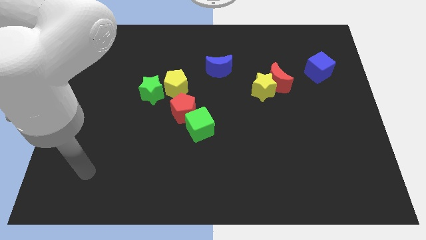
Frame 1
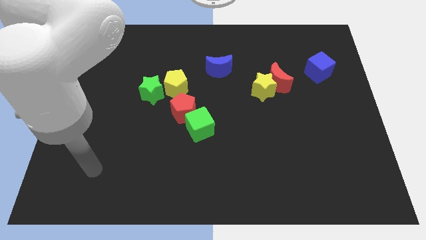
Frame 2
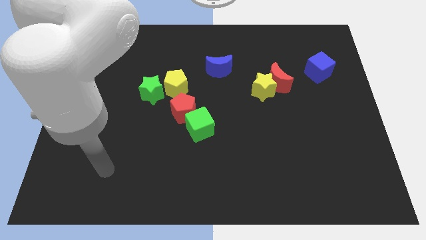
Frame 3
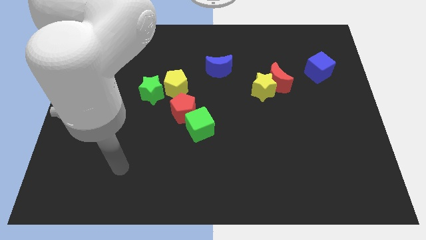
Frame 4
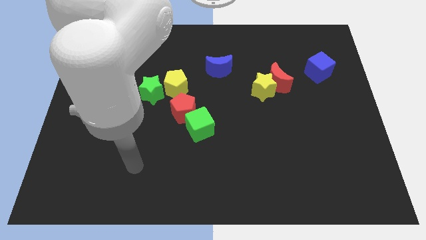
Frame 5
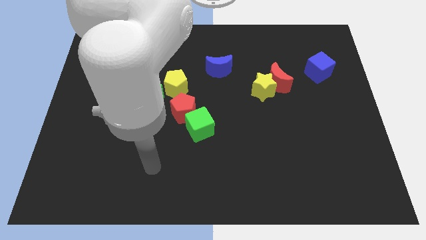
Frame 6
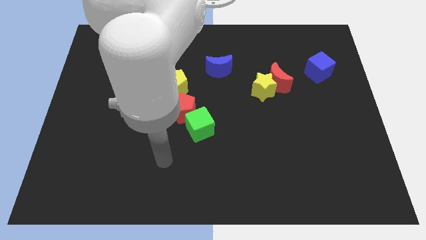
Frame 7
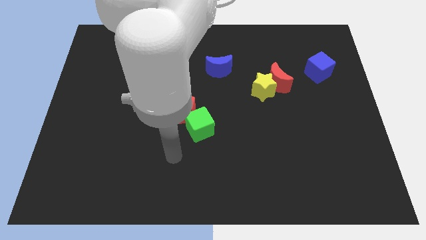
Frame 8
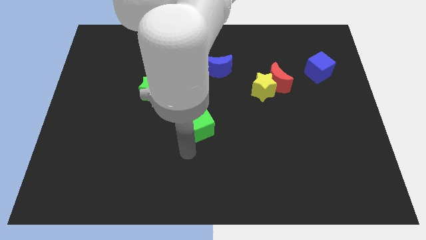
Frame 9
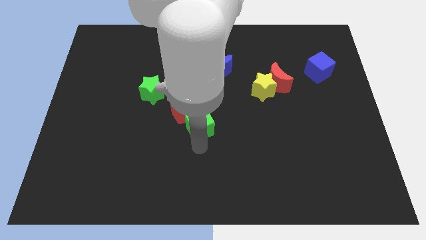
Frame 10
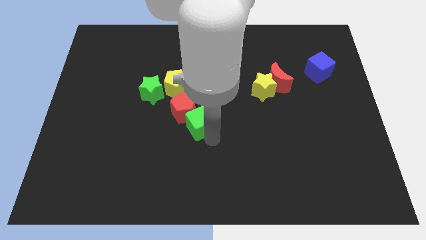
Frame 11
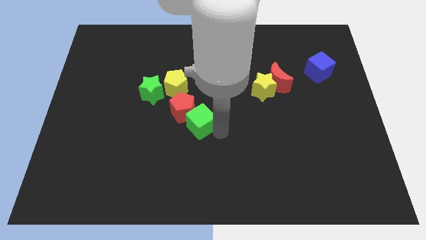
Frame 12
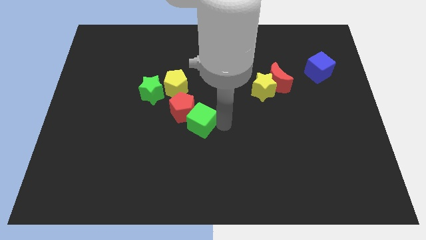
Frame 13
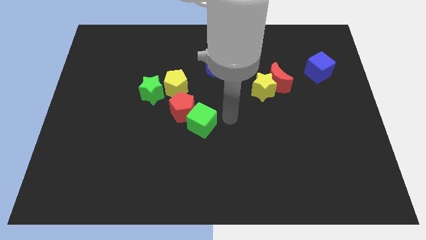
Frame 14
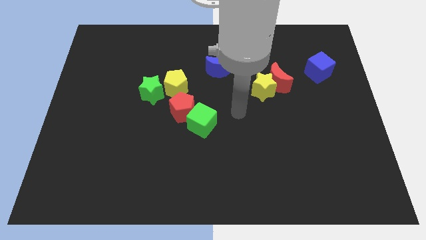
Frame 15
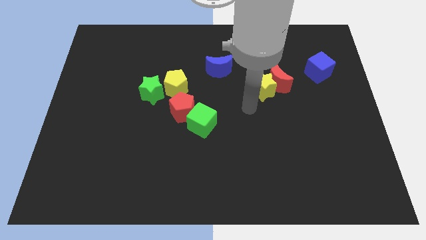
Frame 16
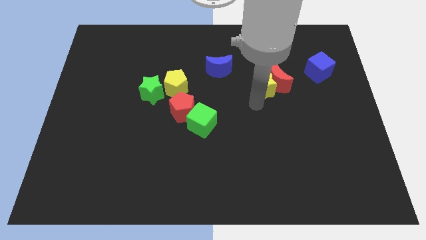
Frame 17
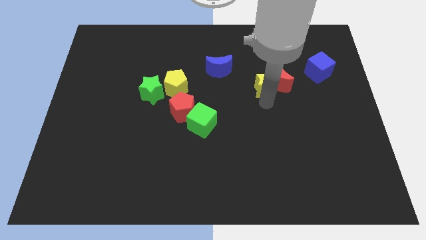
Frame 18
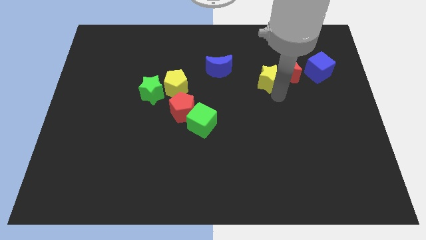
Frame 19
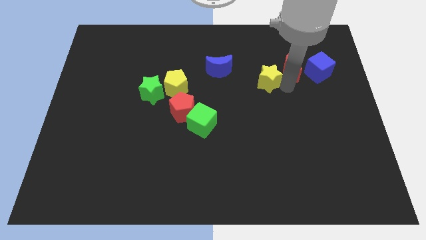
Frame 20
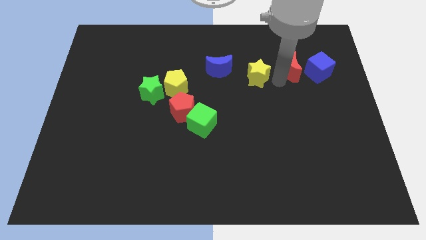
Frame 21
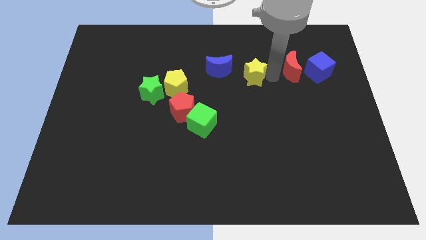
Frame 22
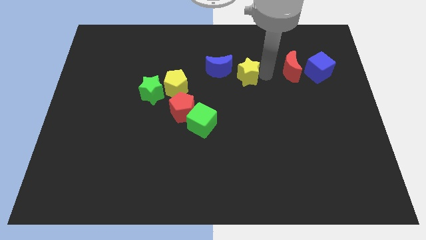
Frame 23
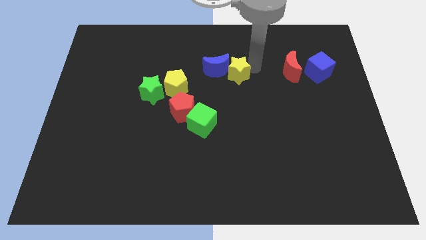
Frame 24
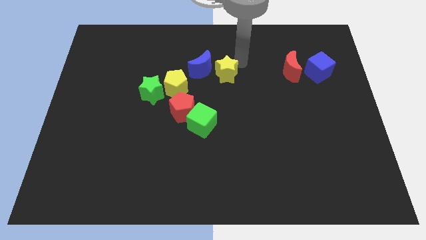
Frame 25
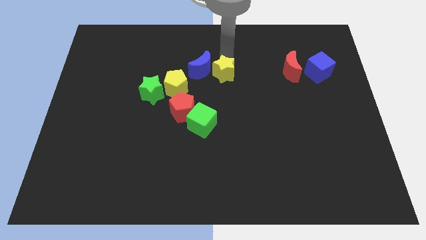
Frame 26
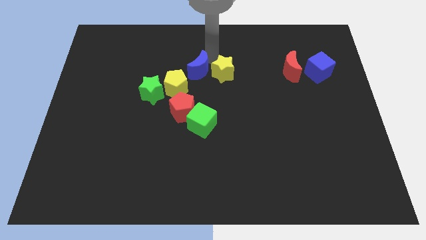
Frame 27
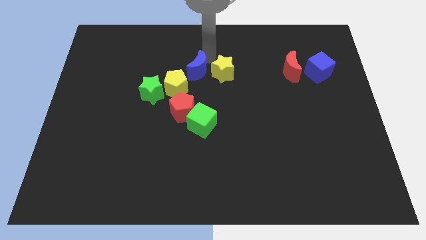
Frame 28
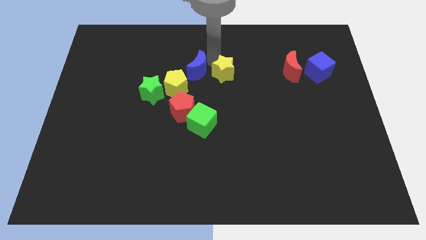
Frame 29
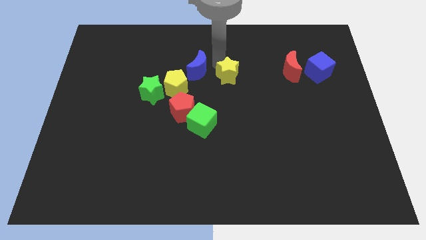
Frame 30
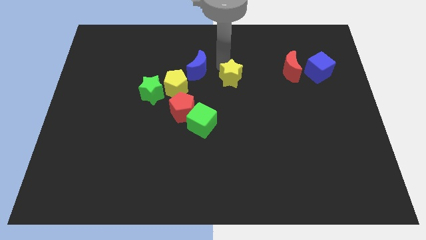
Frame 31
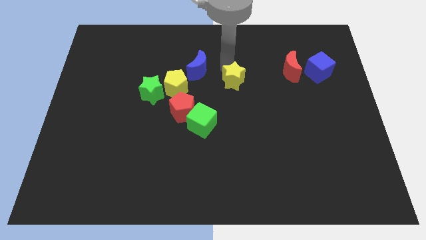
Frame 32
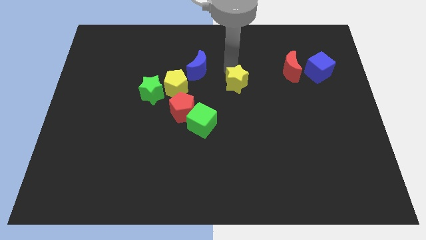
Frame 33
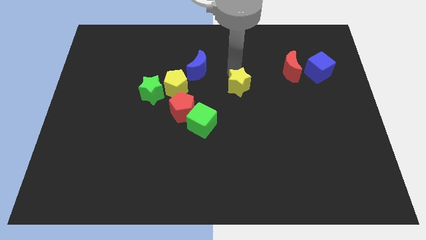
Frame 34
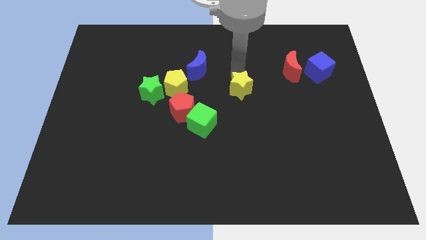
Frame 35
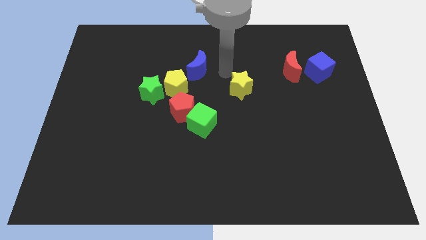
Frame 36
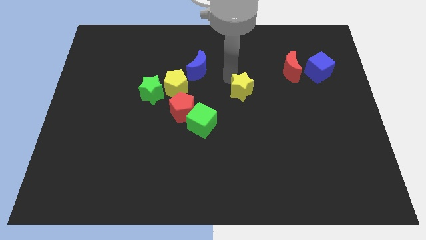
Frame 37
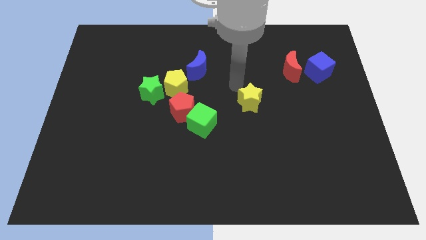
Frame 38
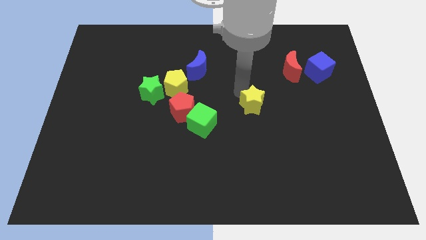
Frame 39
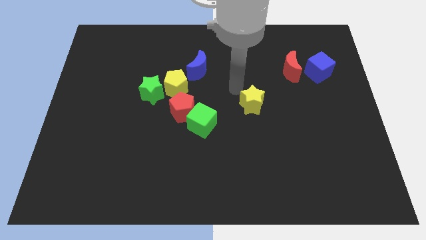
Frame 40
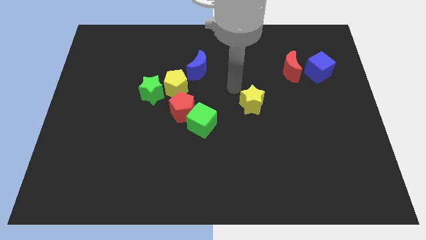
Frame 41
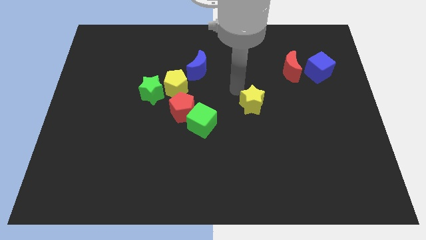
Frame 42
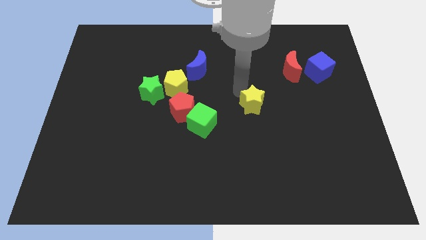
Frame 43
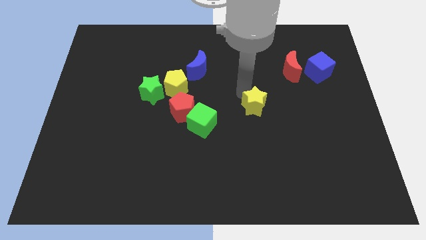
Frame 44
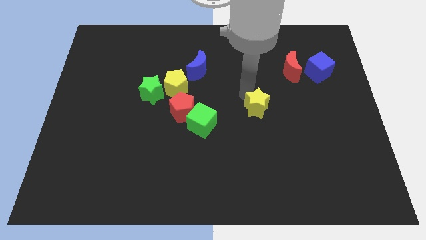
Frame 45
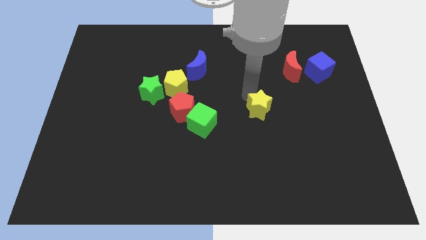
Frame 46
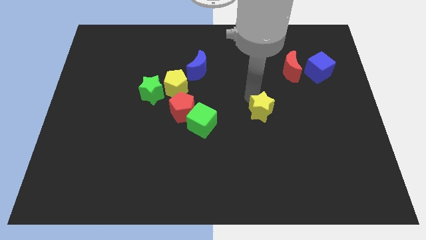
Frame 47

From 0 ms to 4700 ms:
slightly push the yellow star down

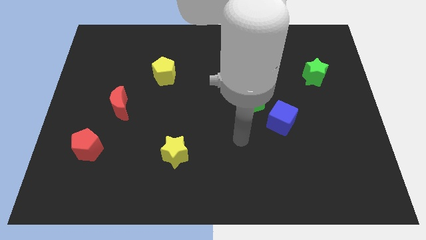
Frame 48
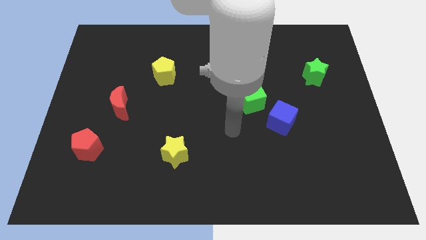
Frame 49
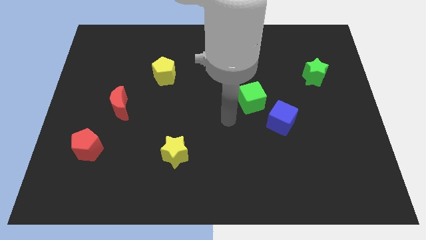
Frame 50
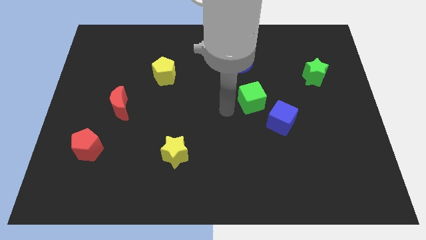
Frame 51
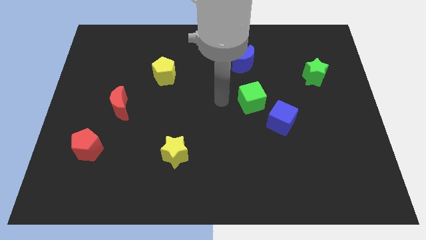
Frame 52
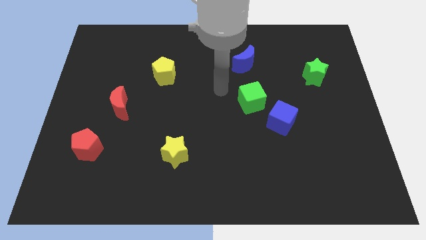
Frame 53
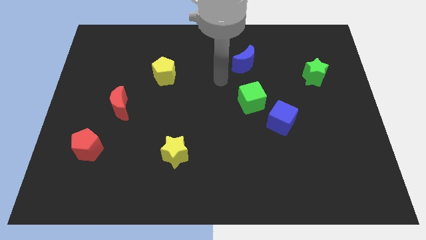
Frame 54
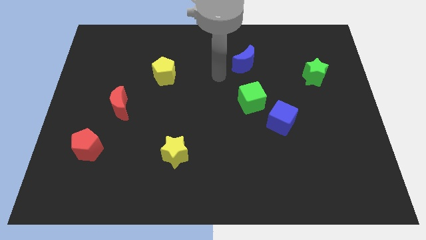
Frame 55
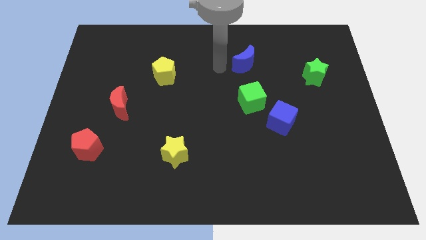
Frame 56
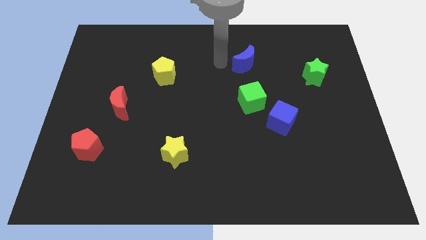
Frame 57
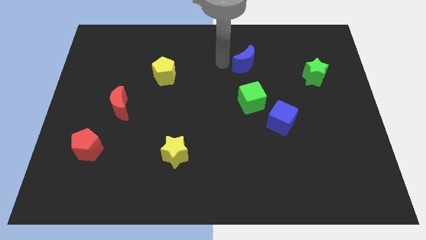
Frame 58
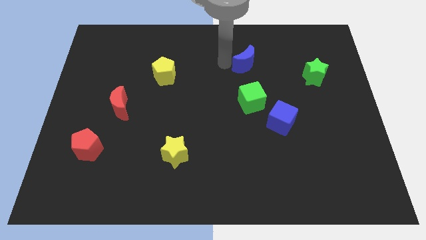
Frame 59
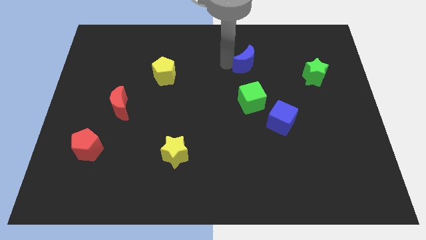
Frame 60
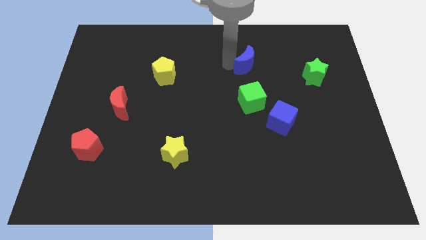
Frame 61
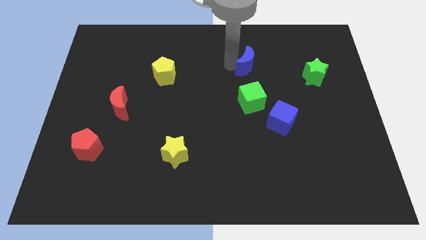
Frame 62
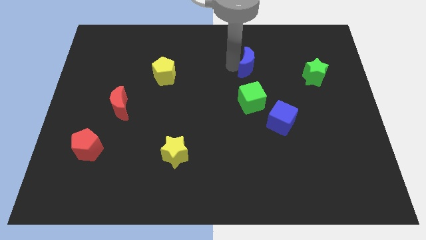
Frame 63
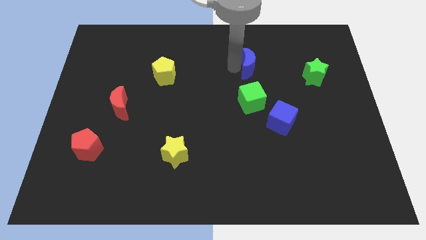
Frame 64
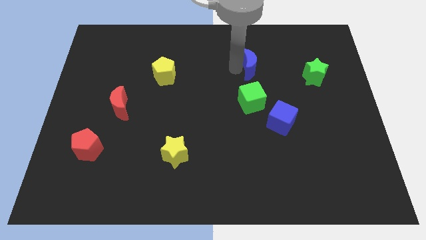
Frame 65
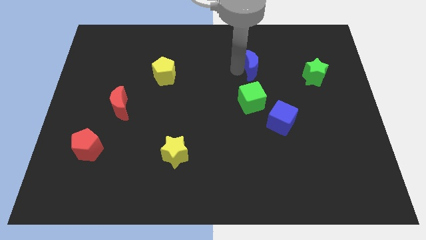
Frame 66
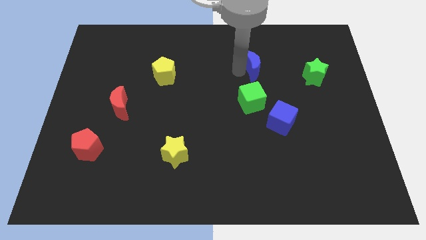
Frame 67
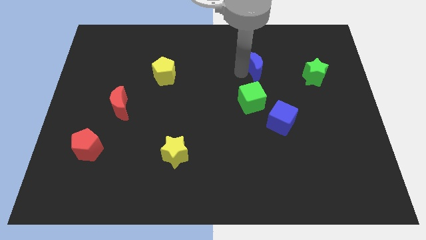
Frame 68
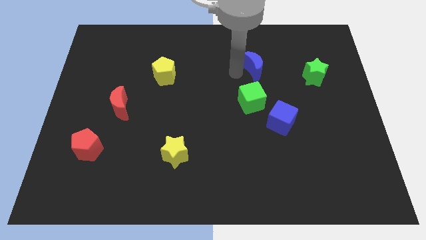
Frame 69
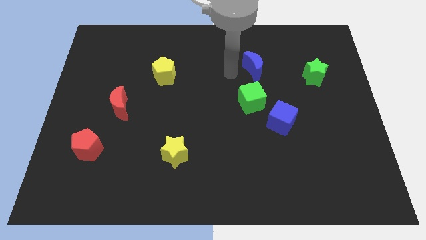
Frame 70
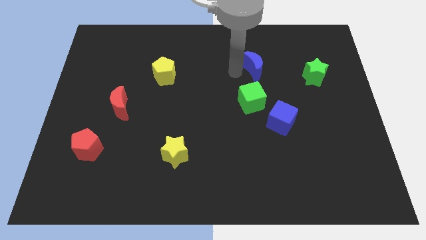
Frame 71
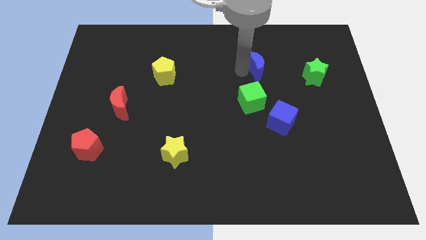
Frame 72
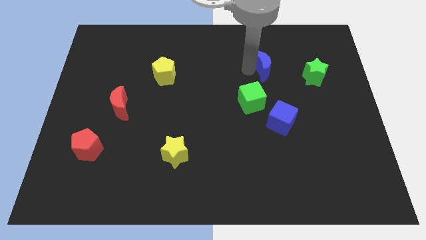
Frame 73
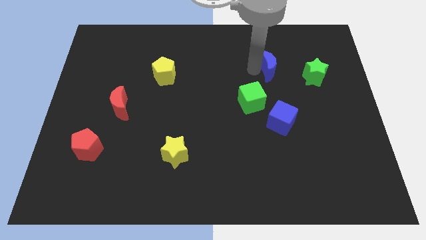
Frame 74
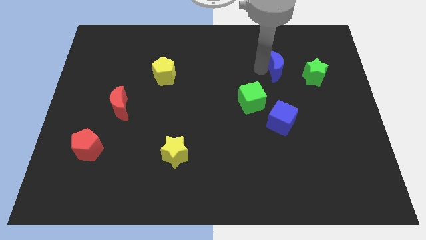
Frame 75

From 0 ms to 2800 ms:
slightly push the blue moon to the right

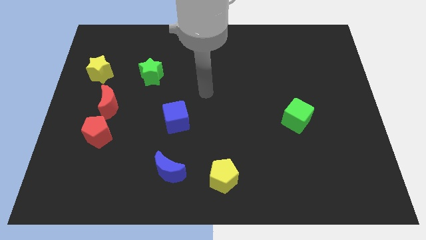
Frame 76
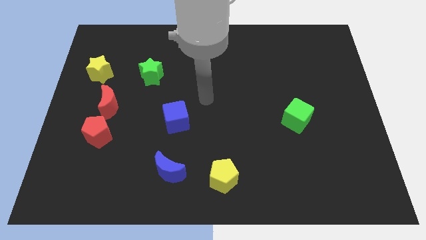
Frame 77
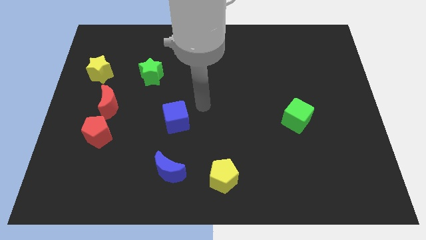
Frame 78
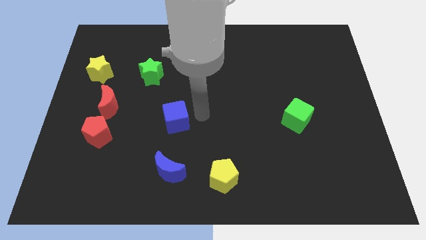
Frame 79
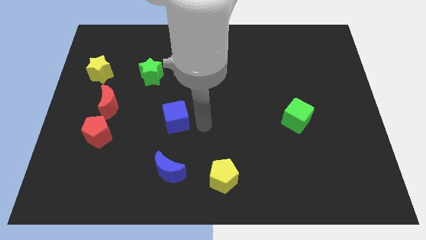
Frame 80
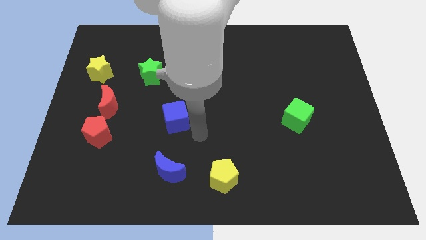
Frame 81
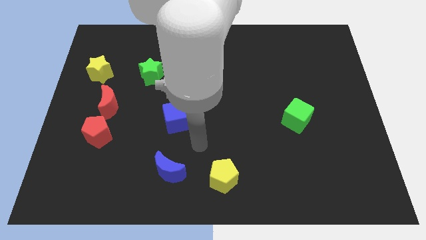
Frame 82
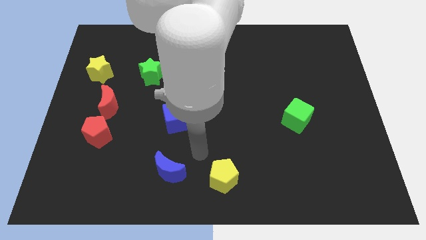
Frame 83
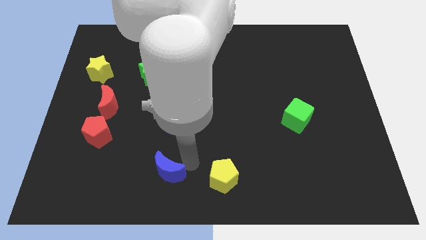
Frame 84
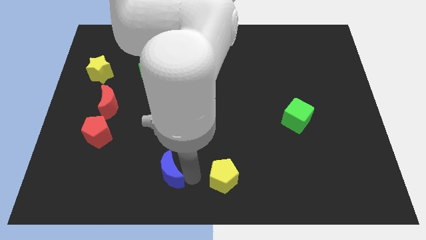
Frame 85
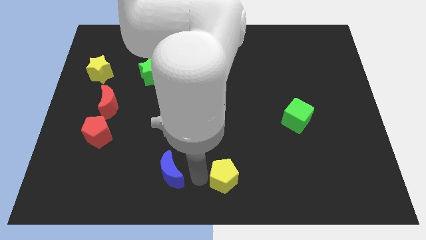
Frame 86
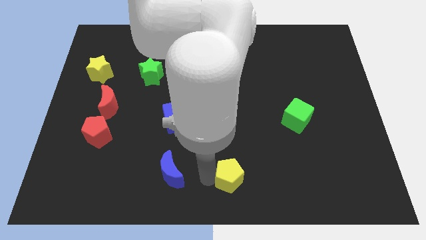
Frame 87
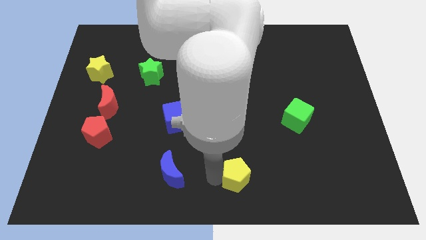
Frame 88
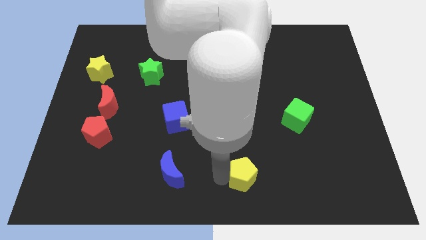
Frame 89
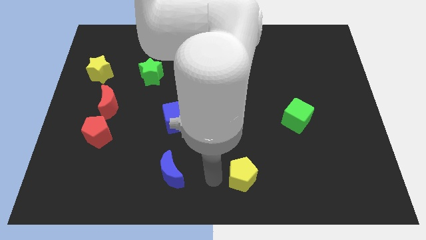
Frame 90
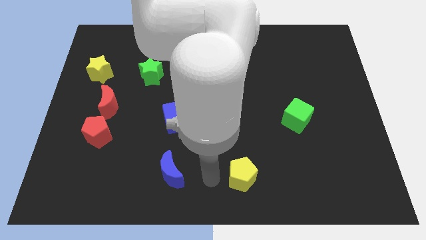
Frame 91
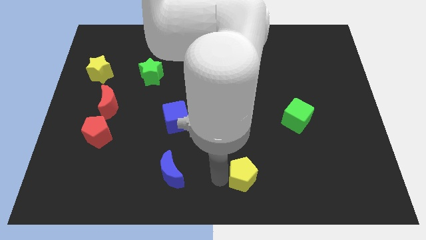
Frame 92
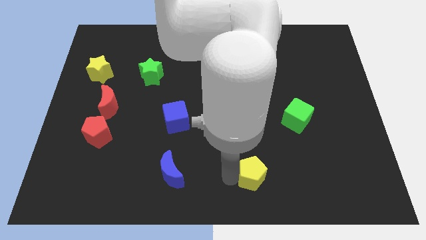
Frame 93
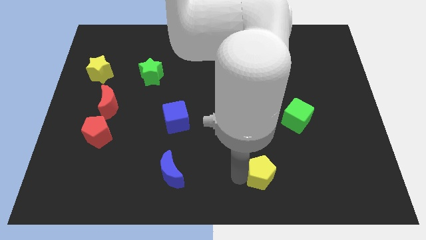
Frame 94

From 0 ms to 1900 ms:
move the yellow pentagon a little bit right
